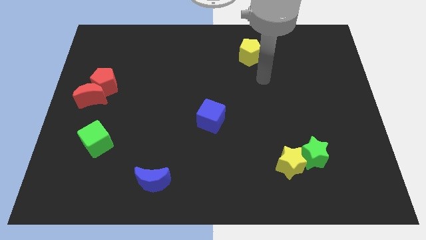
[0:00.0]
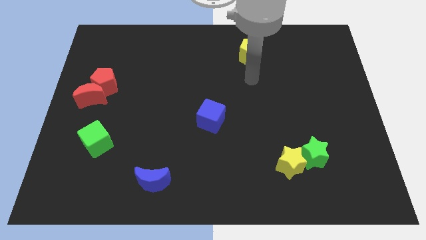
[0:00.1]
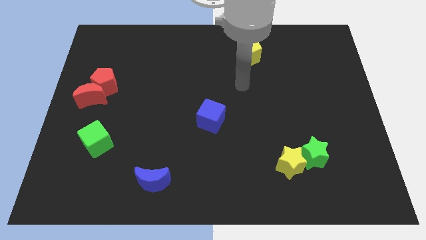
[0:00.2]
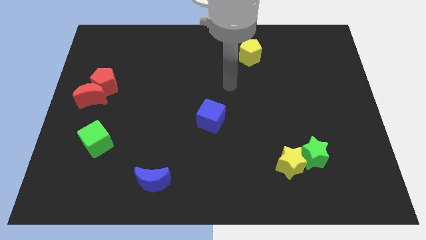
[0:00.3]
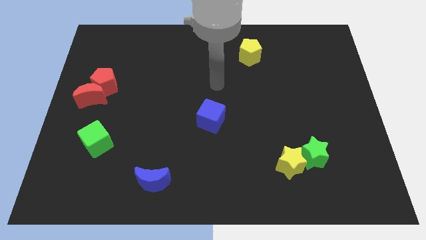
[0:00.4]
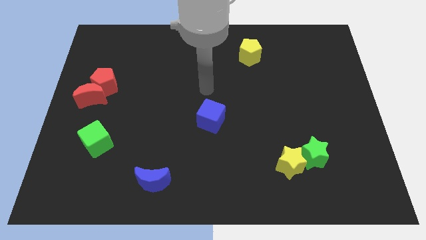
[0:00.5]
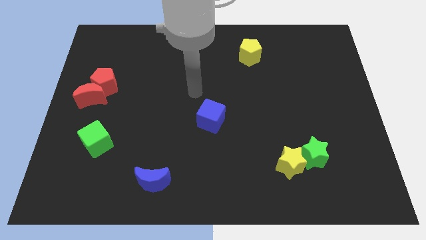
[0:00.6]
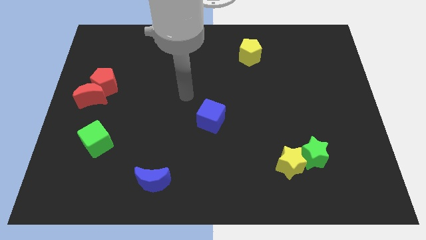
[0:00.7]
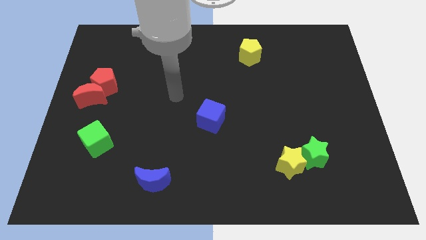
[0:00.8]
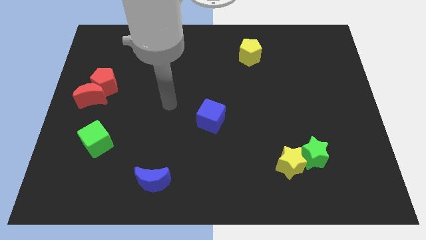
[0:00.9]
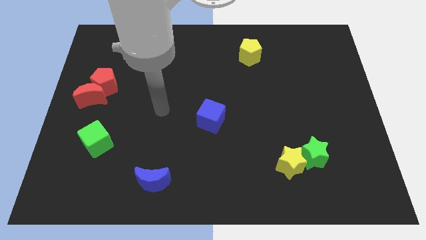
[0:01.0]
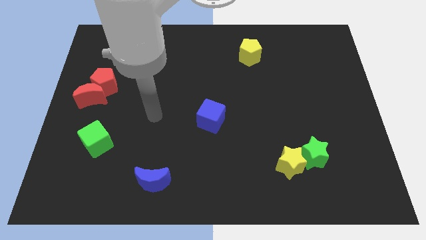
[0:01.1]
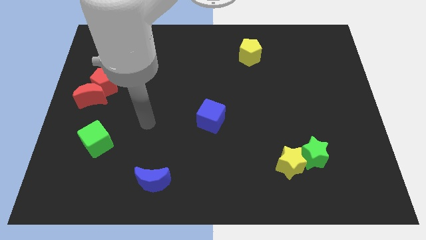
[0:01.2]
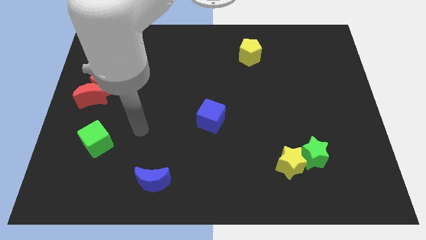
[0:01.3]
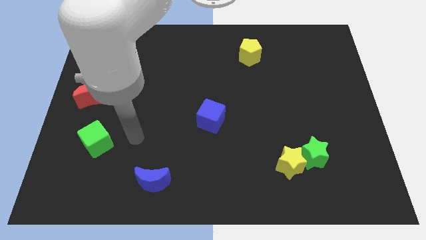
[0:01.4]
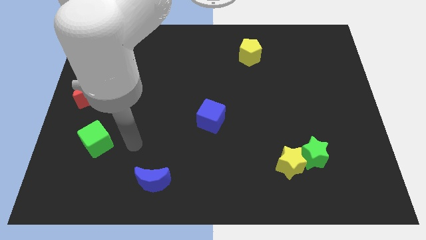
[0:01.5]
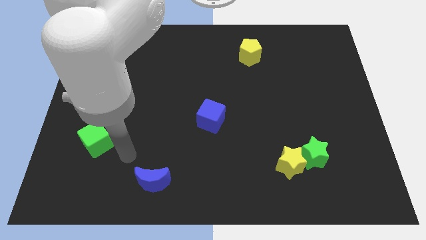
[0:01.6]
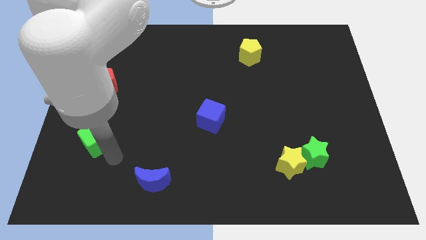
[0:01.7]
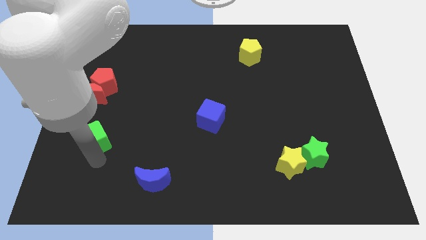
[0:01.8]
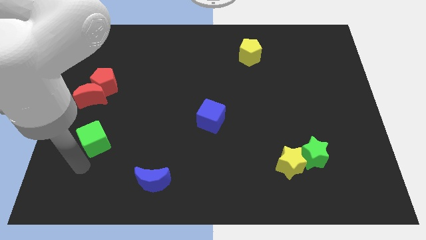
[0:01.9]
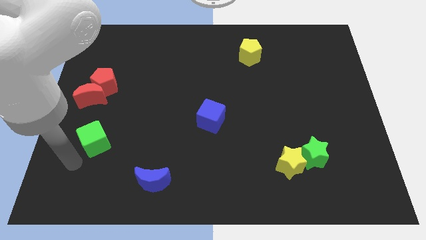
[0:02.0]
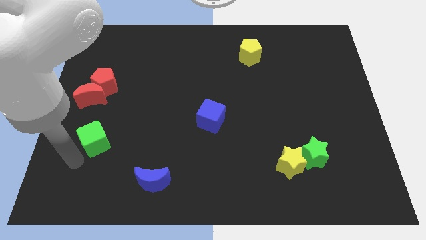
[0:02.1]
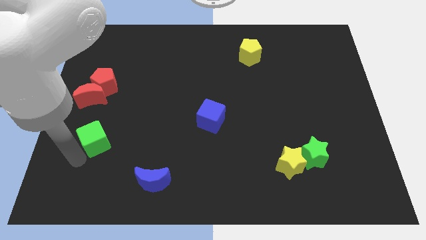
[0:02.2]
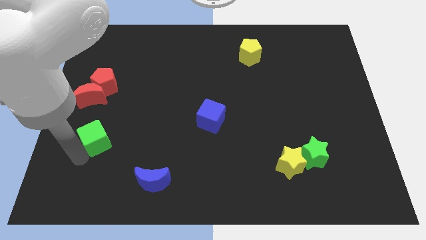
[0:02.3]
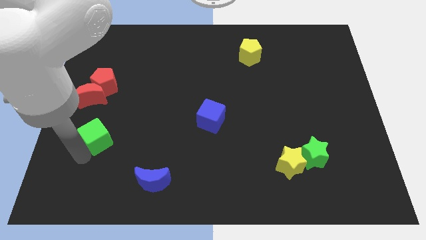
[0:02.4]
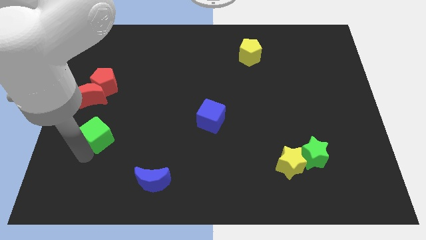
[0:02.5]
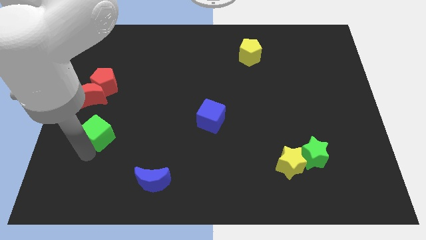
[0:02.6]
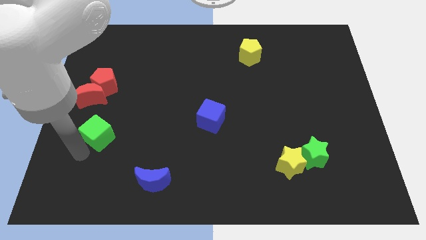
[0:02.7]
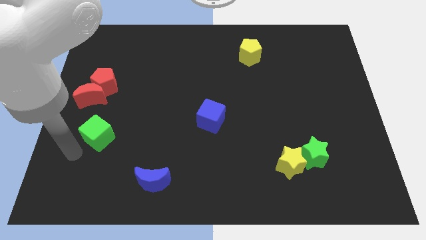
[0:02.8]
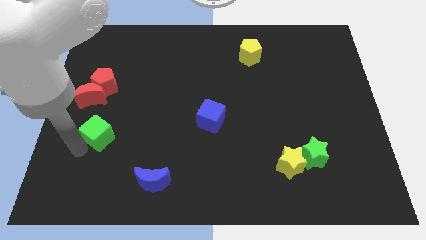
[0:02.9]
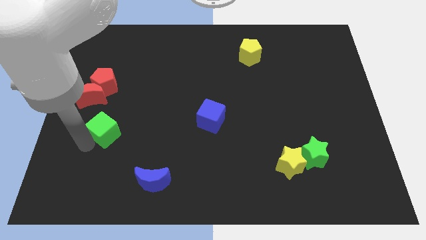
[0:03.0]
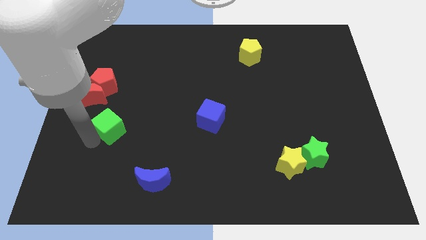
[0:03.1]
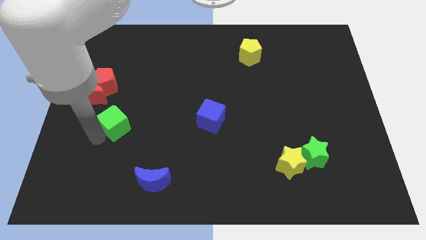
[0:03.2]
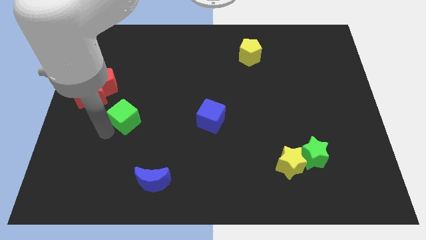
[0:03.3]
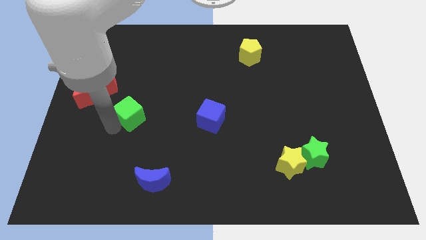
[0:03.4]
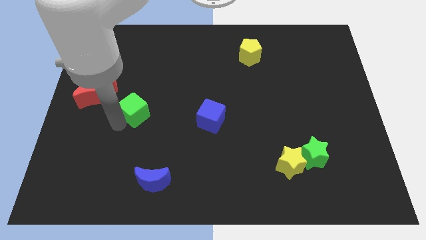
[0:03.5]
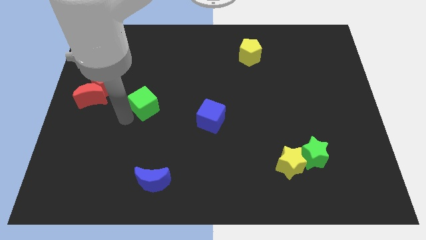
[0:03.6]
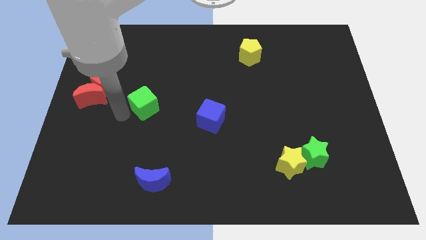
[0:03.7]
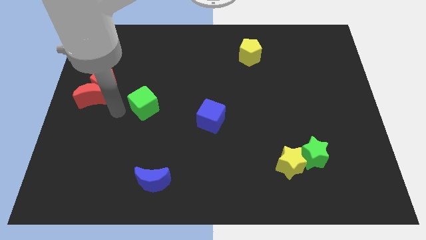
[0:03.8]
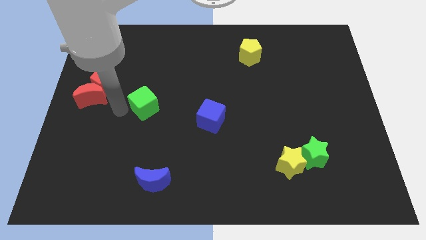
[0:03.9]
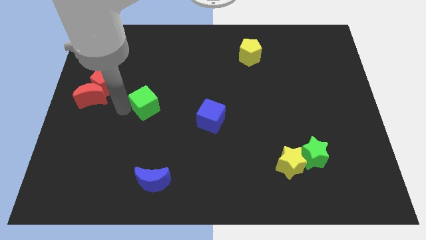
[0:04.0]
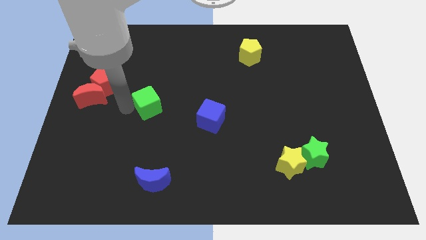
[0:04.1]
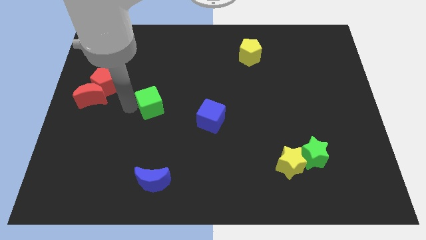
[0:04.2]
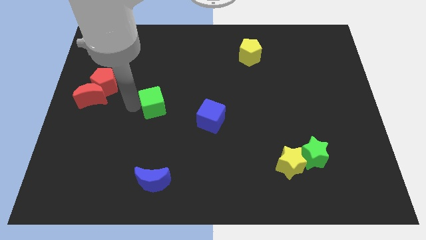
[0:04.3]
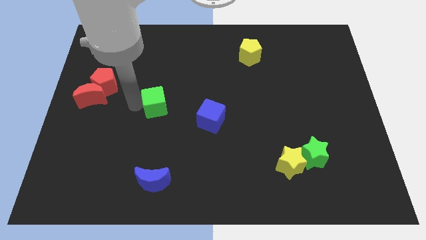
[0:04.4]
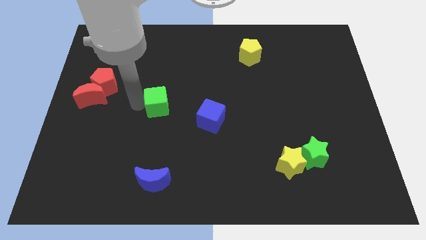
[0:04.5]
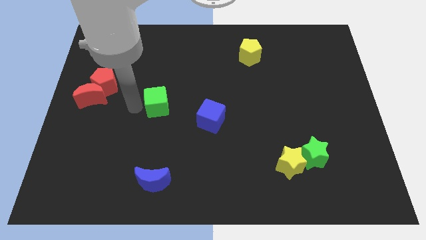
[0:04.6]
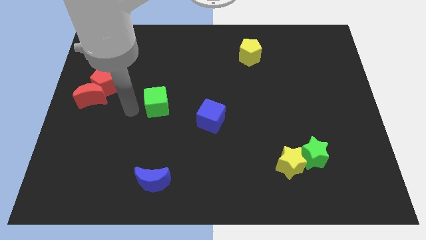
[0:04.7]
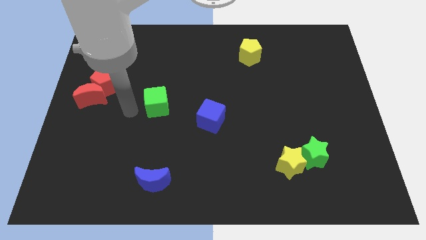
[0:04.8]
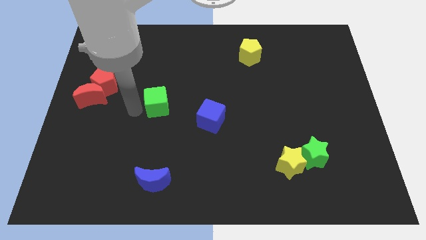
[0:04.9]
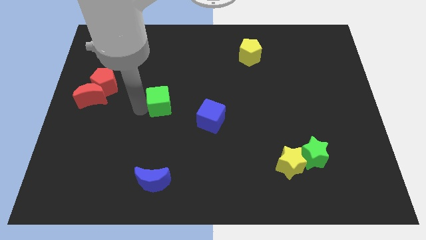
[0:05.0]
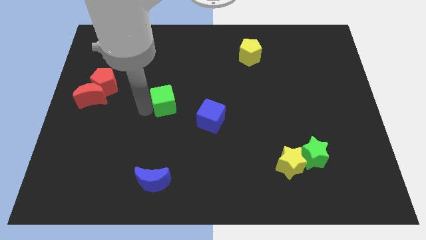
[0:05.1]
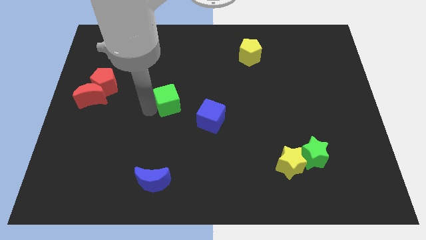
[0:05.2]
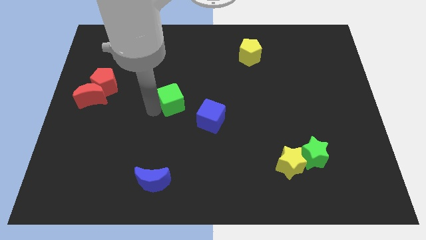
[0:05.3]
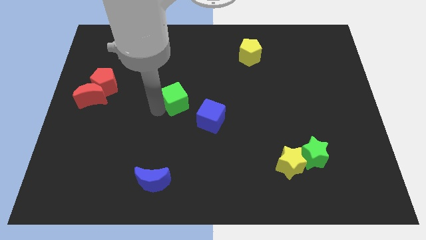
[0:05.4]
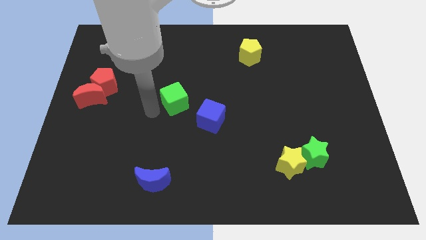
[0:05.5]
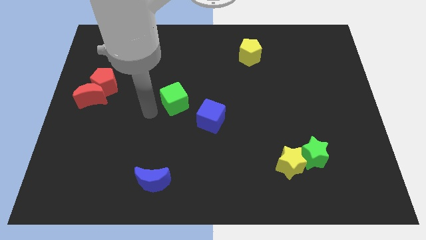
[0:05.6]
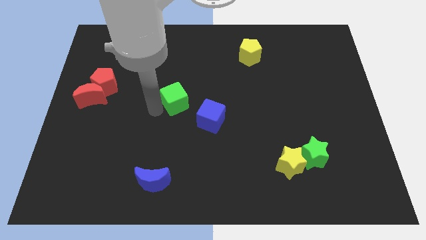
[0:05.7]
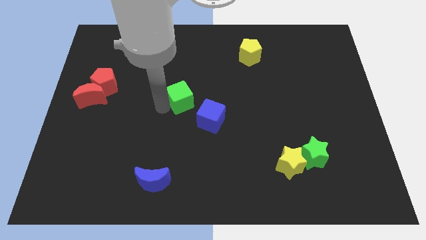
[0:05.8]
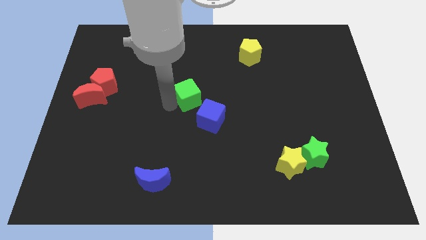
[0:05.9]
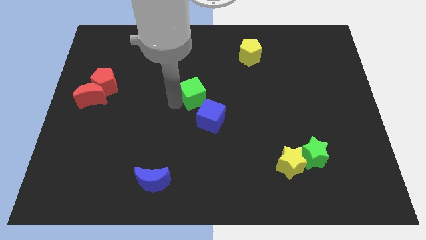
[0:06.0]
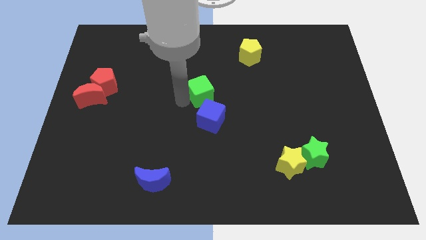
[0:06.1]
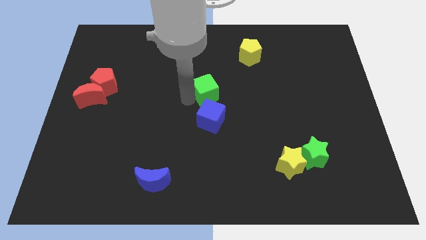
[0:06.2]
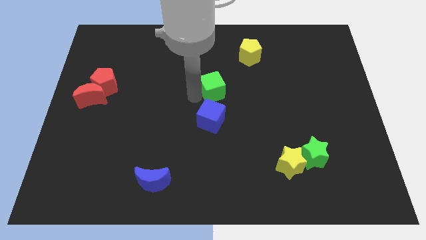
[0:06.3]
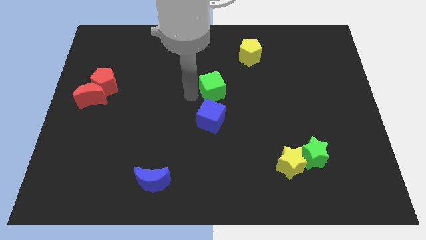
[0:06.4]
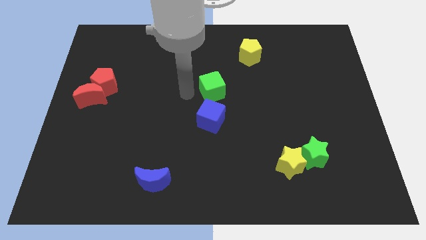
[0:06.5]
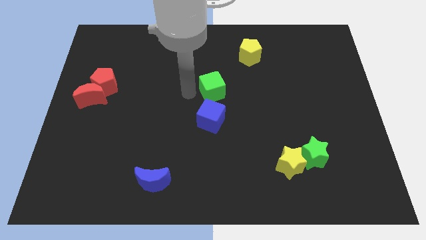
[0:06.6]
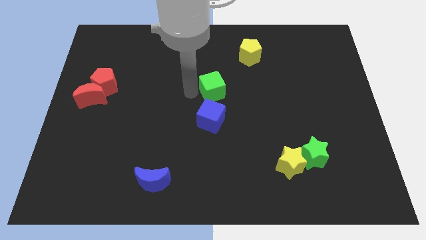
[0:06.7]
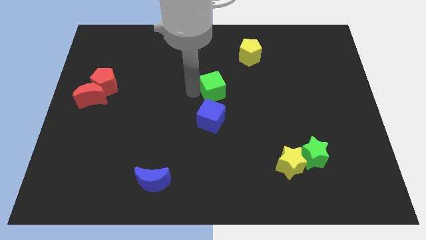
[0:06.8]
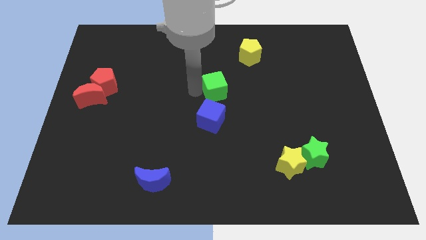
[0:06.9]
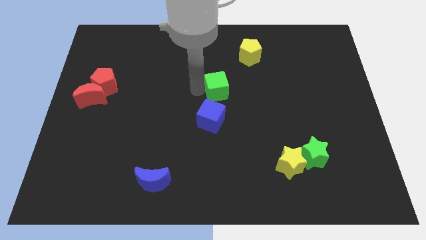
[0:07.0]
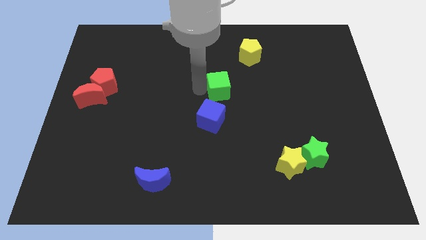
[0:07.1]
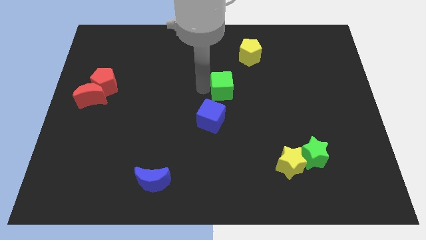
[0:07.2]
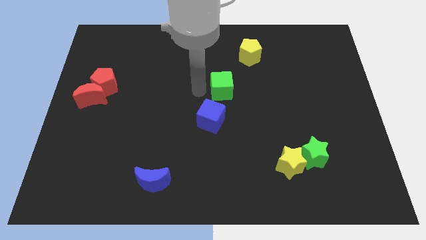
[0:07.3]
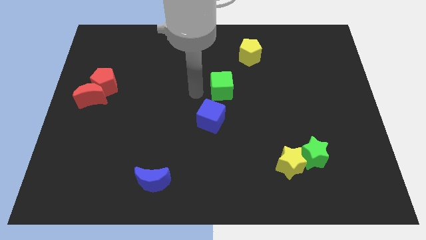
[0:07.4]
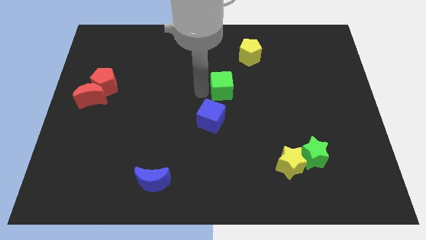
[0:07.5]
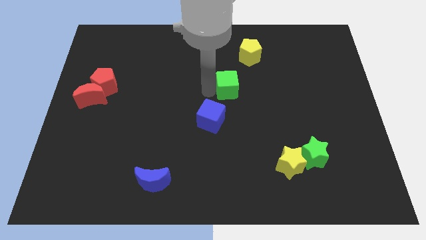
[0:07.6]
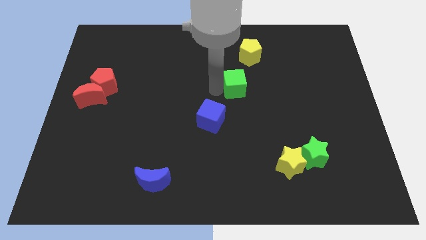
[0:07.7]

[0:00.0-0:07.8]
put the green cube to the bottom side of the yellow pentagon
